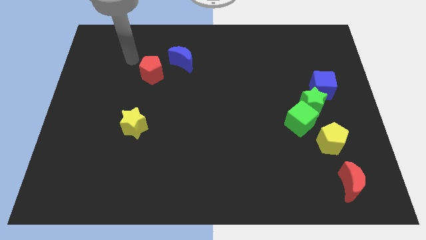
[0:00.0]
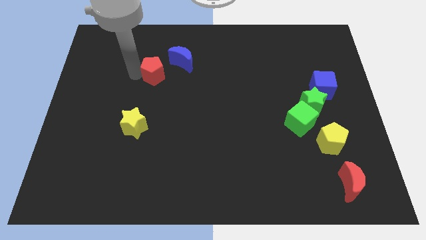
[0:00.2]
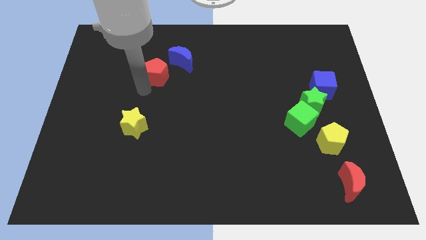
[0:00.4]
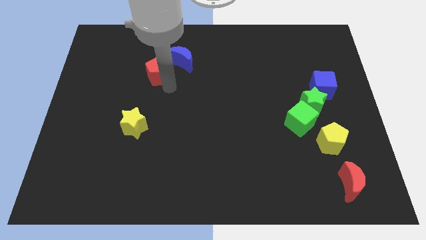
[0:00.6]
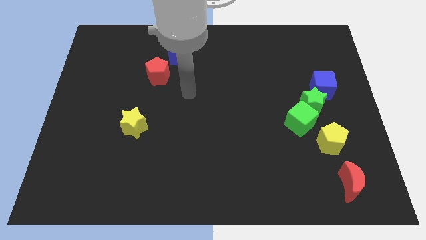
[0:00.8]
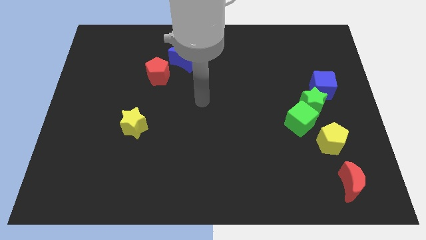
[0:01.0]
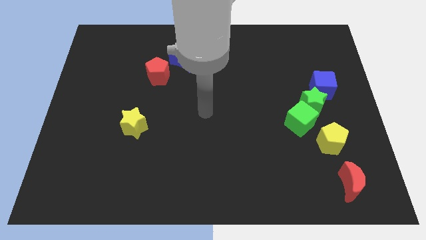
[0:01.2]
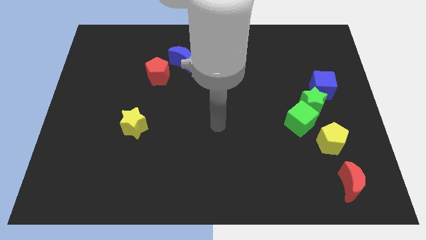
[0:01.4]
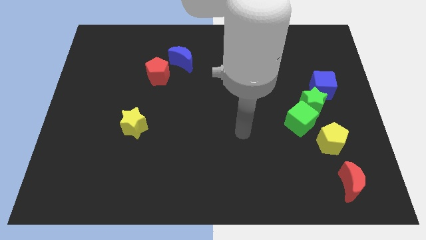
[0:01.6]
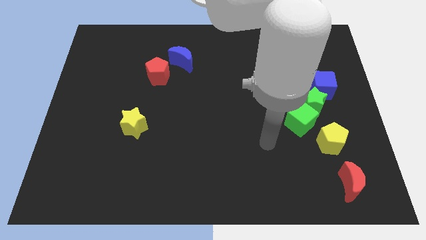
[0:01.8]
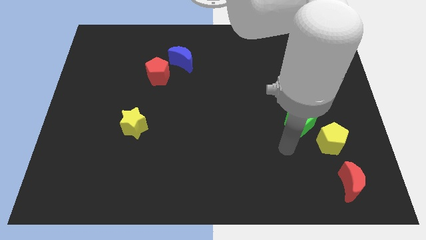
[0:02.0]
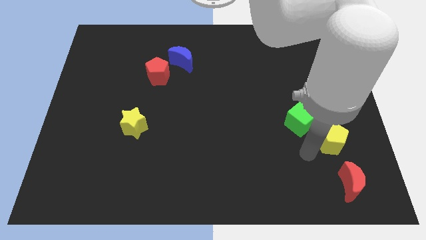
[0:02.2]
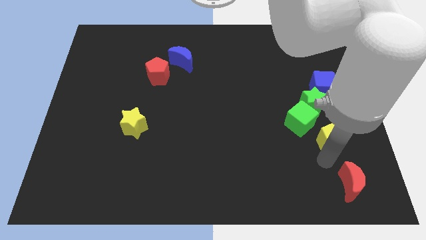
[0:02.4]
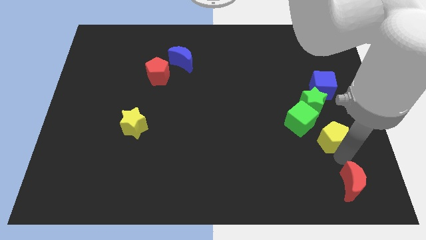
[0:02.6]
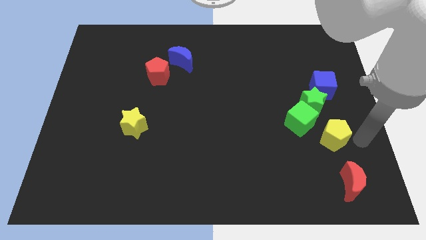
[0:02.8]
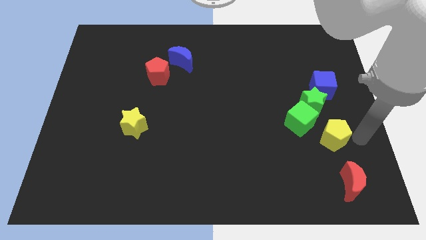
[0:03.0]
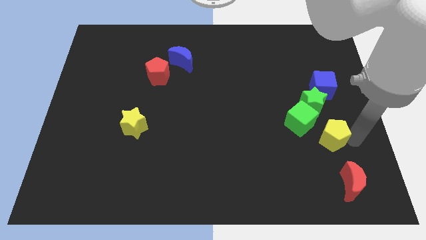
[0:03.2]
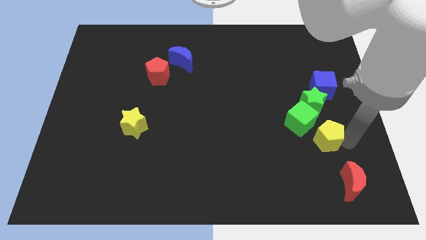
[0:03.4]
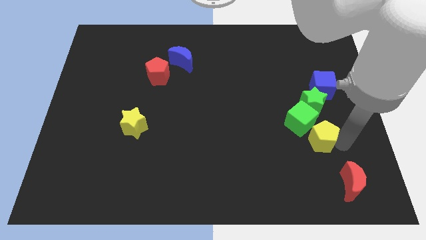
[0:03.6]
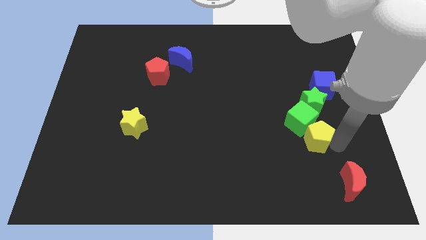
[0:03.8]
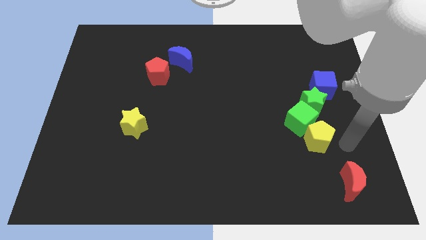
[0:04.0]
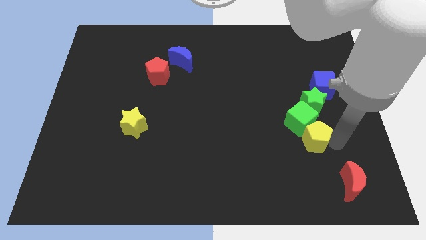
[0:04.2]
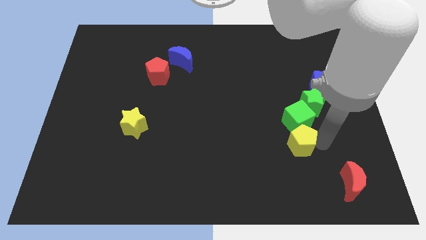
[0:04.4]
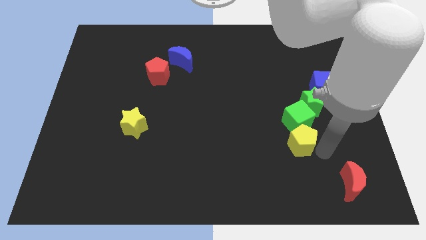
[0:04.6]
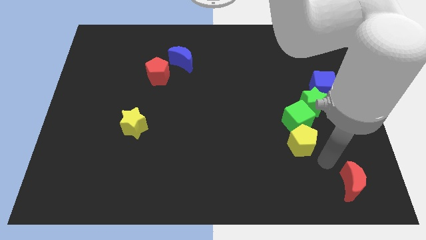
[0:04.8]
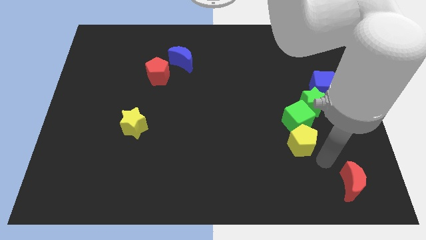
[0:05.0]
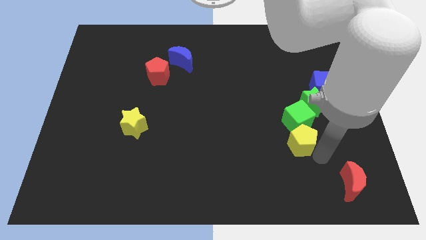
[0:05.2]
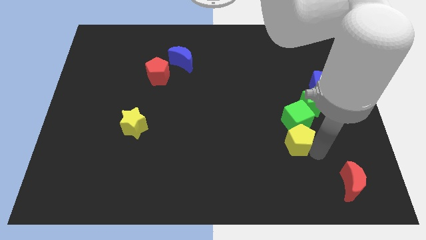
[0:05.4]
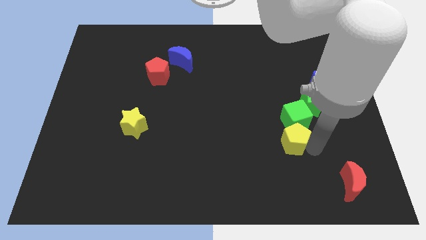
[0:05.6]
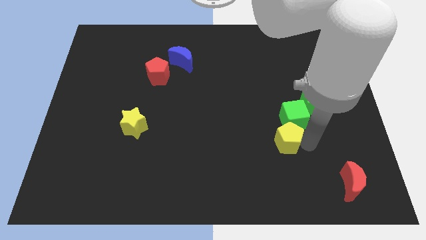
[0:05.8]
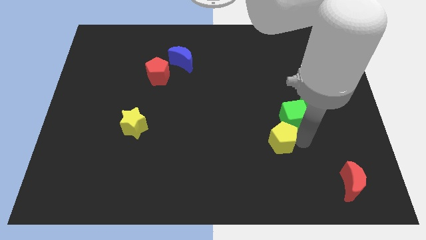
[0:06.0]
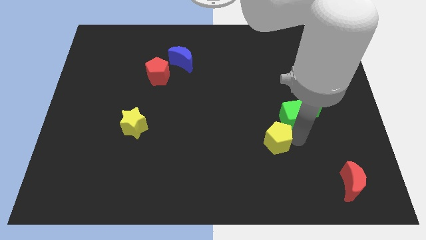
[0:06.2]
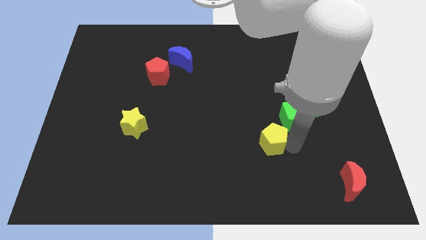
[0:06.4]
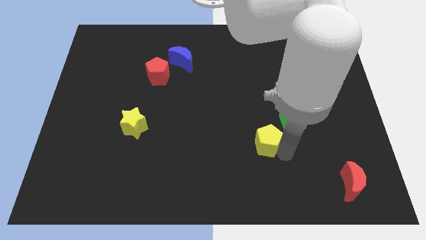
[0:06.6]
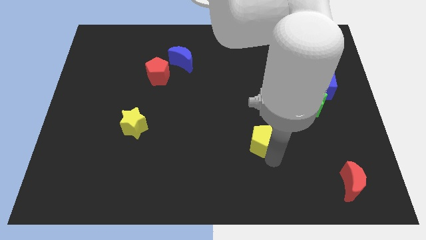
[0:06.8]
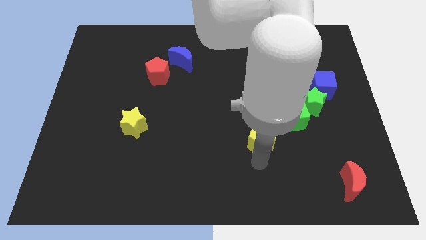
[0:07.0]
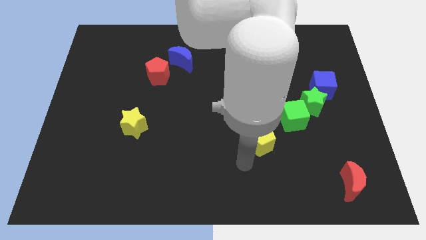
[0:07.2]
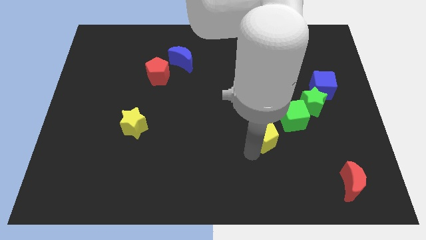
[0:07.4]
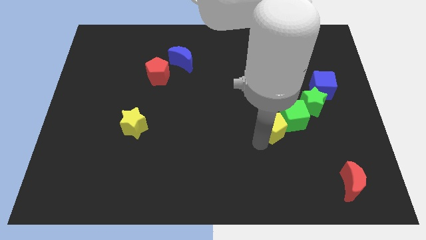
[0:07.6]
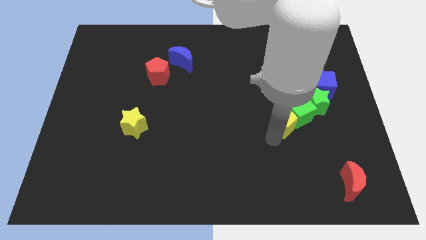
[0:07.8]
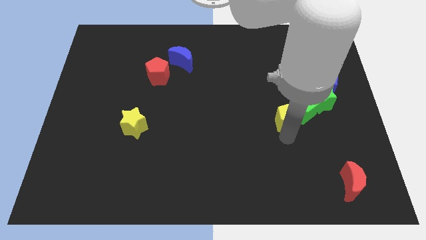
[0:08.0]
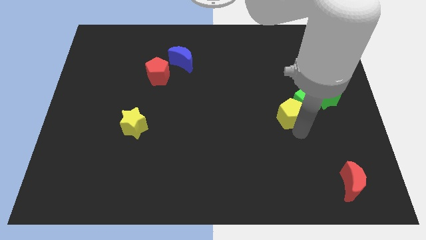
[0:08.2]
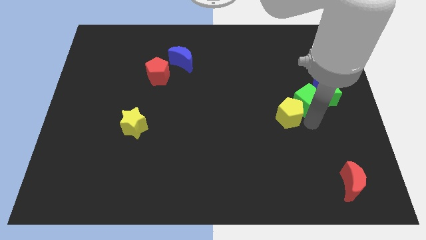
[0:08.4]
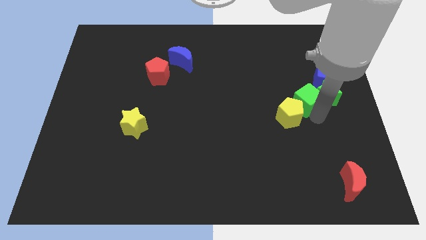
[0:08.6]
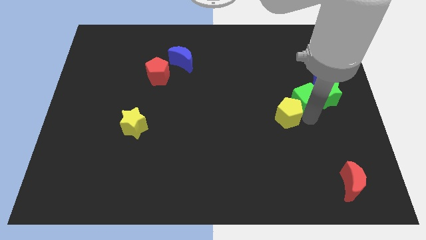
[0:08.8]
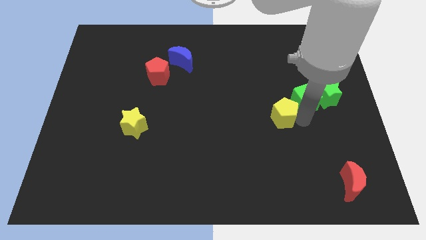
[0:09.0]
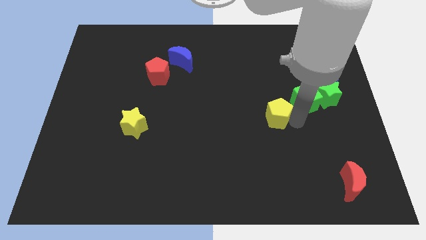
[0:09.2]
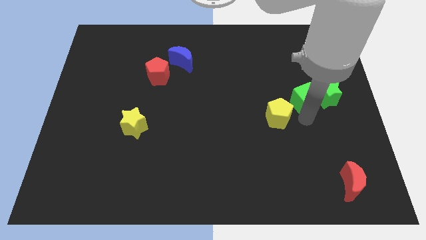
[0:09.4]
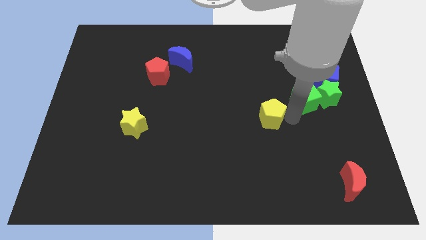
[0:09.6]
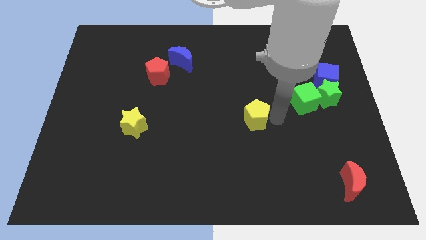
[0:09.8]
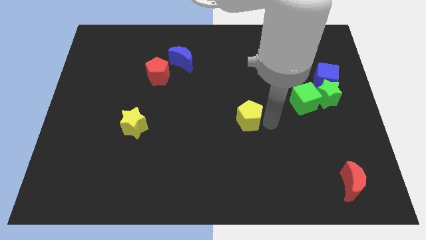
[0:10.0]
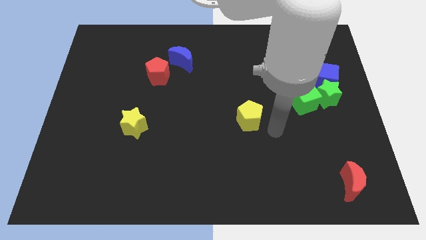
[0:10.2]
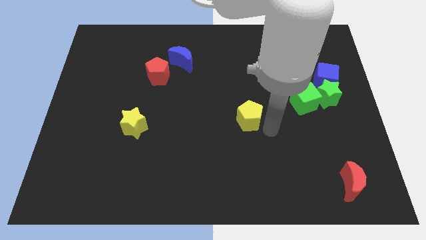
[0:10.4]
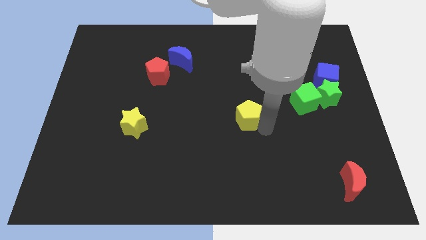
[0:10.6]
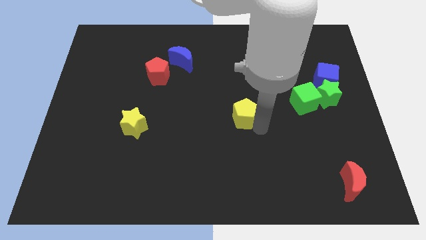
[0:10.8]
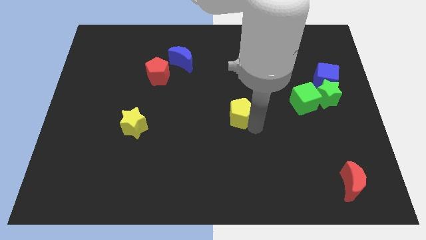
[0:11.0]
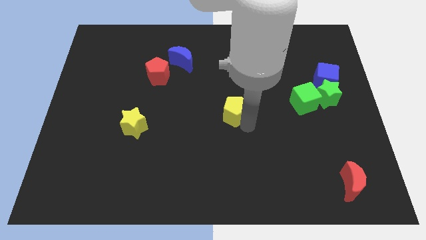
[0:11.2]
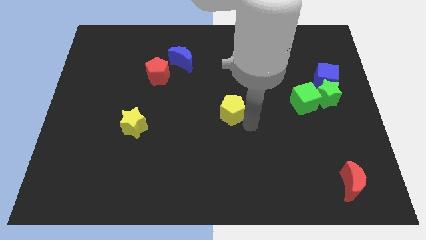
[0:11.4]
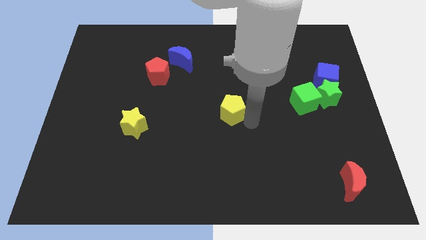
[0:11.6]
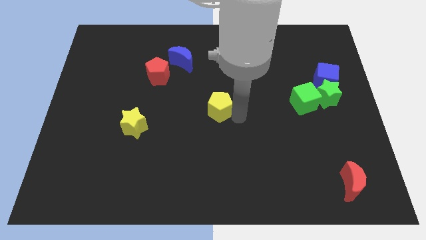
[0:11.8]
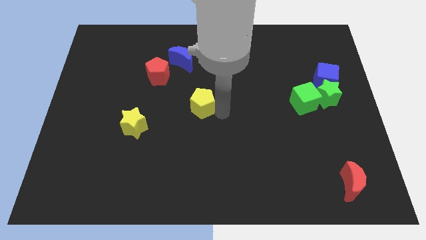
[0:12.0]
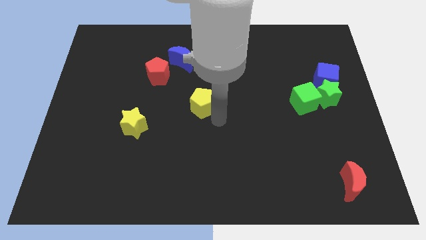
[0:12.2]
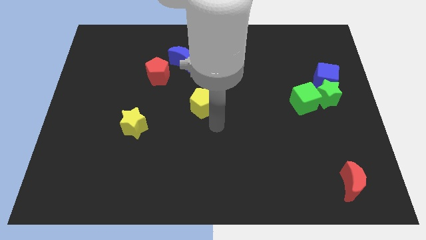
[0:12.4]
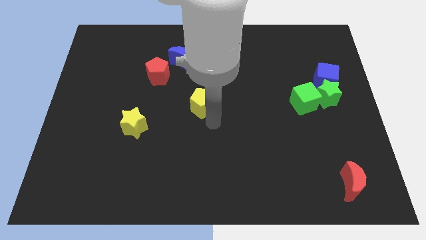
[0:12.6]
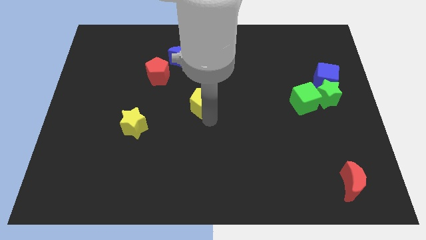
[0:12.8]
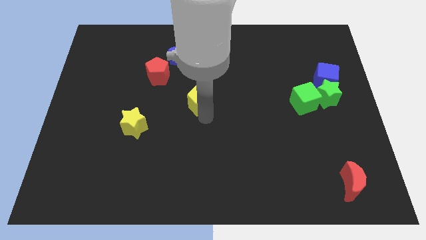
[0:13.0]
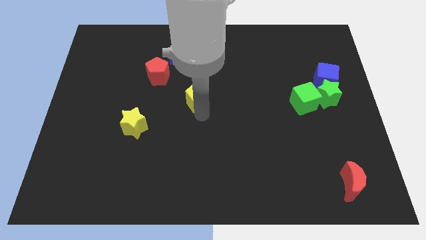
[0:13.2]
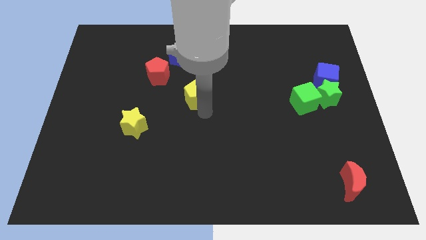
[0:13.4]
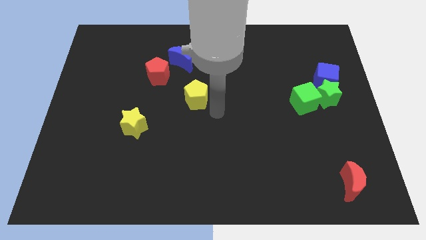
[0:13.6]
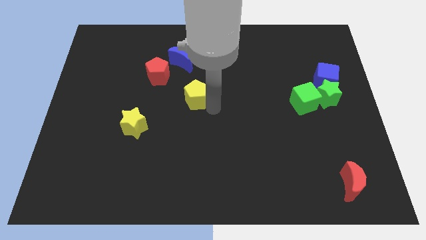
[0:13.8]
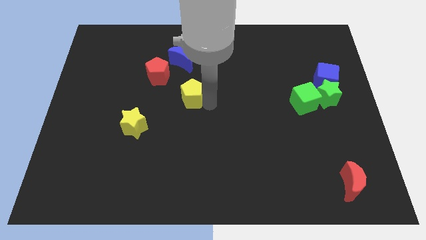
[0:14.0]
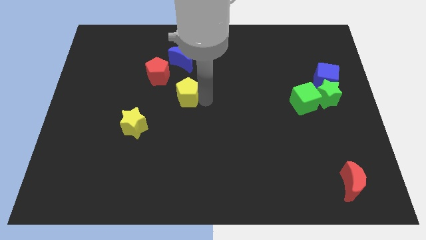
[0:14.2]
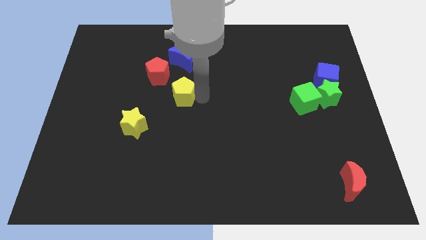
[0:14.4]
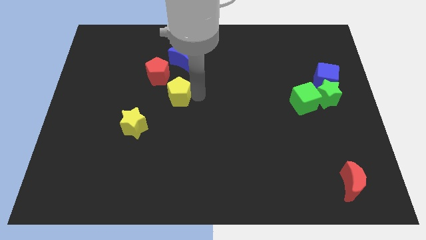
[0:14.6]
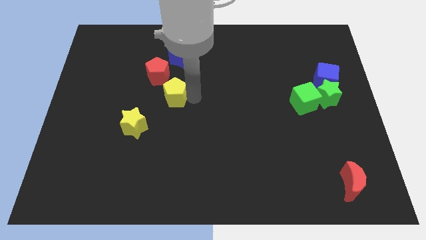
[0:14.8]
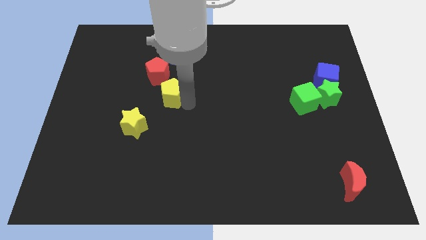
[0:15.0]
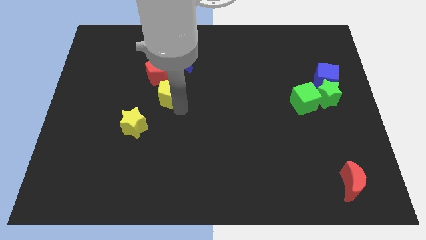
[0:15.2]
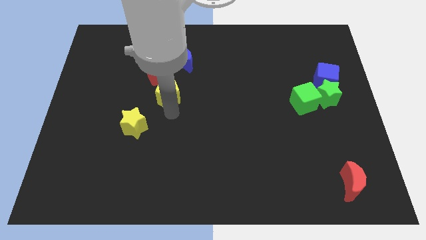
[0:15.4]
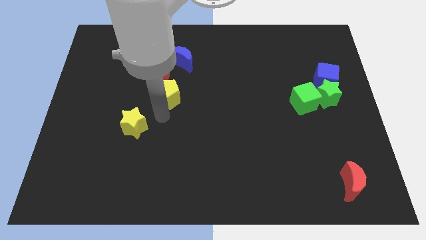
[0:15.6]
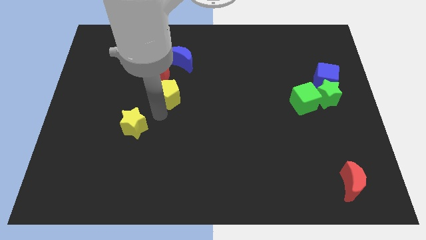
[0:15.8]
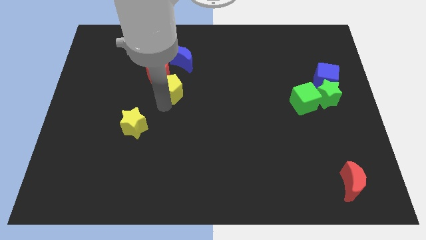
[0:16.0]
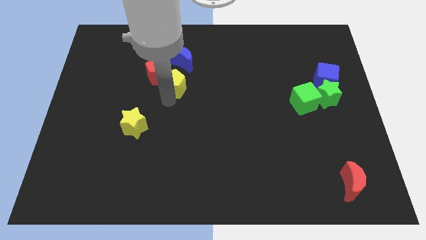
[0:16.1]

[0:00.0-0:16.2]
move the yellow pentagon to the red pentagon
